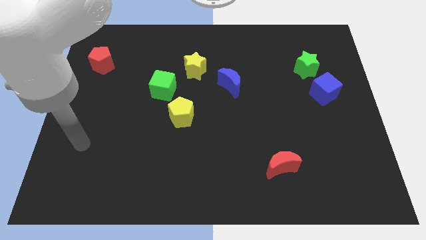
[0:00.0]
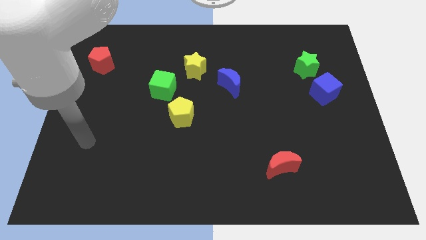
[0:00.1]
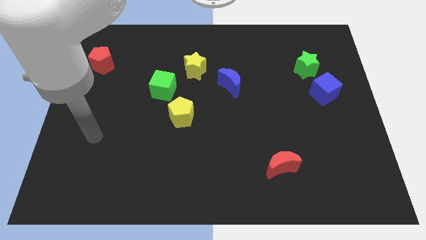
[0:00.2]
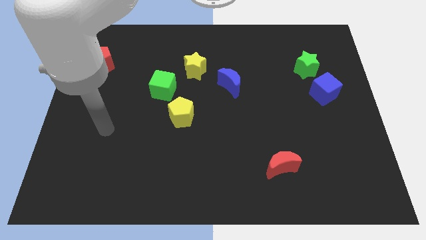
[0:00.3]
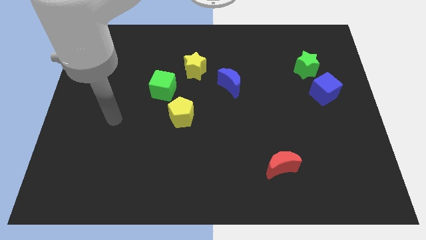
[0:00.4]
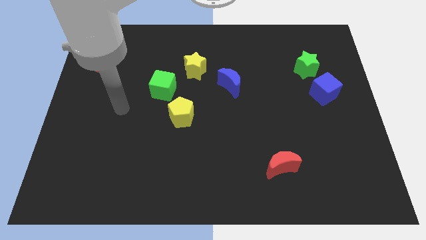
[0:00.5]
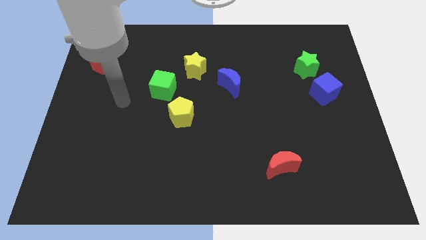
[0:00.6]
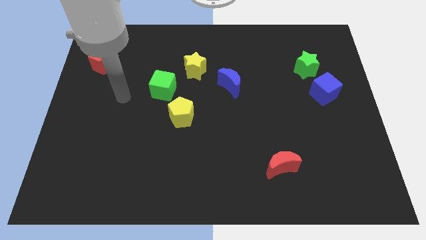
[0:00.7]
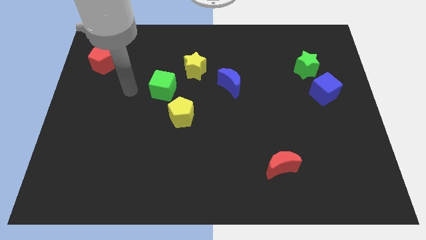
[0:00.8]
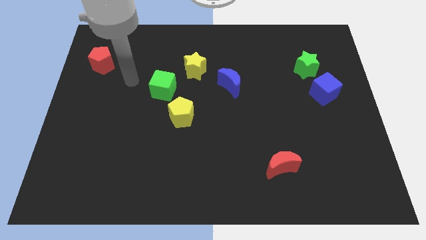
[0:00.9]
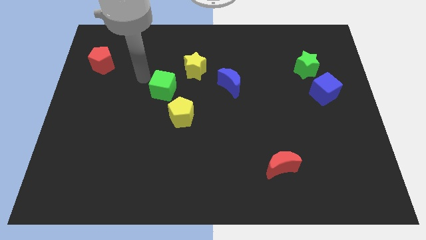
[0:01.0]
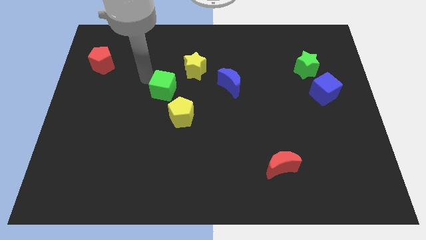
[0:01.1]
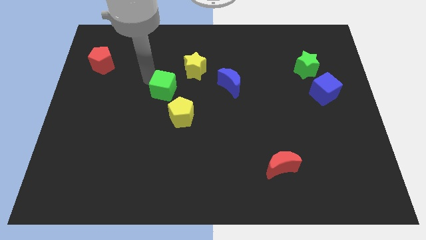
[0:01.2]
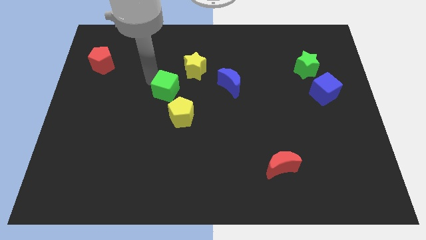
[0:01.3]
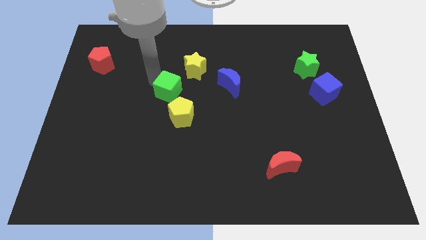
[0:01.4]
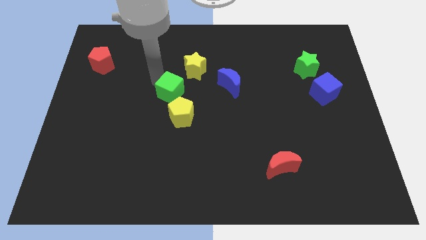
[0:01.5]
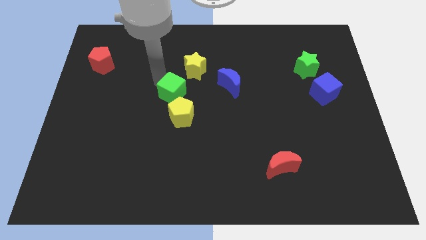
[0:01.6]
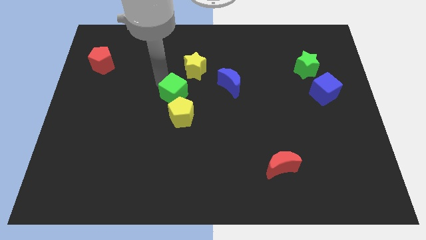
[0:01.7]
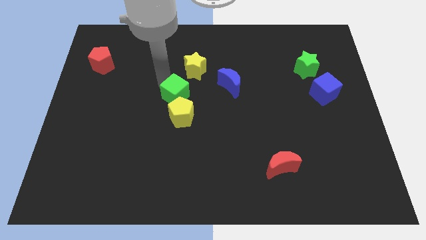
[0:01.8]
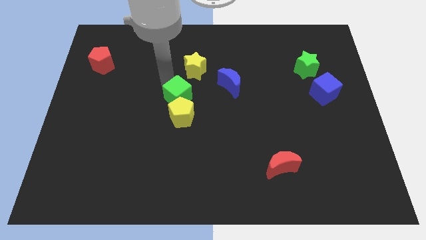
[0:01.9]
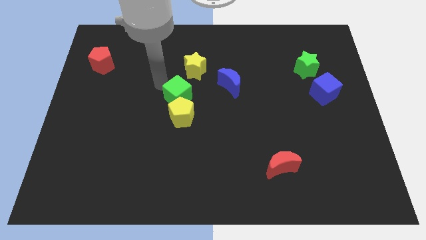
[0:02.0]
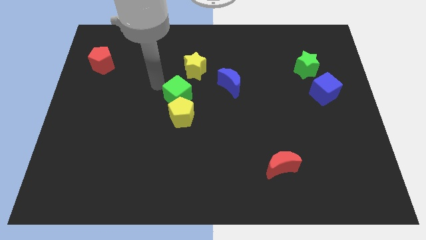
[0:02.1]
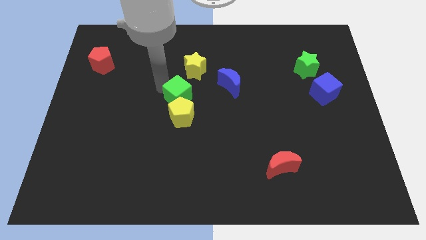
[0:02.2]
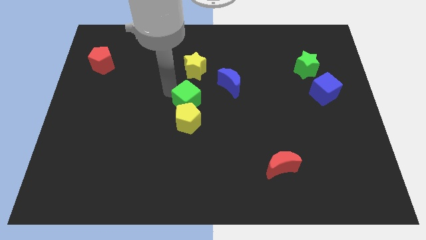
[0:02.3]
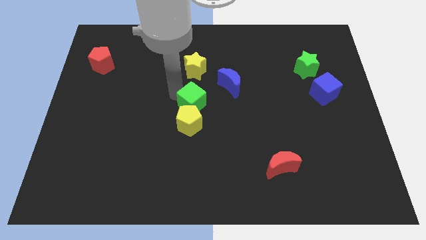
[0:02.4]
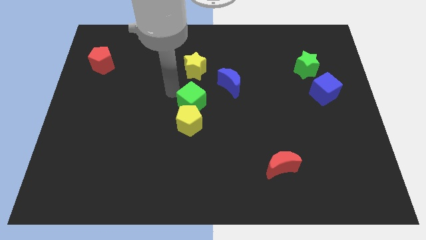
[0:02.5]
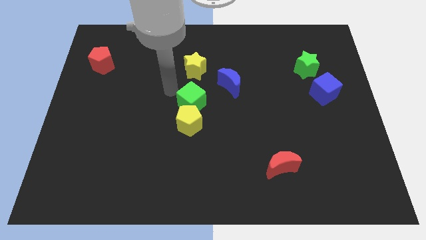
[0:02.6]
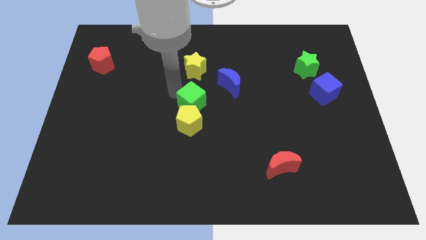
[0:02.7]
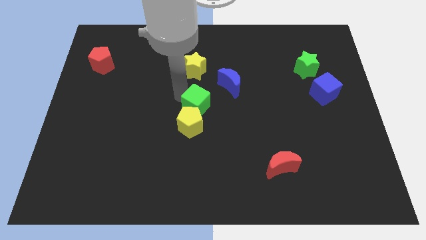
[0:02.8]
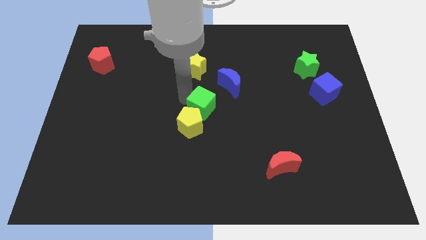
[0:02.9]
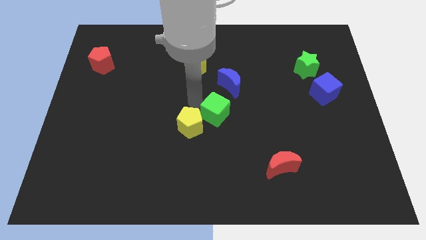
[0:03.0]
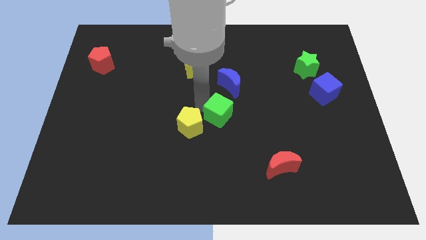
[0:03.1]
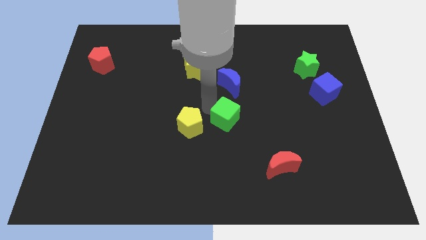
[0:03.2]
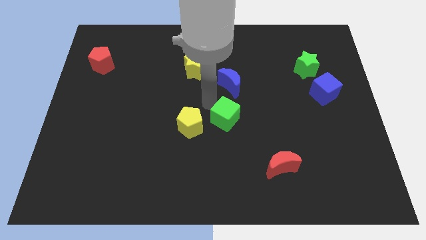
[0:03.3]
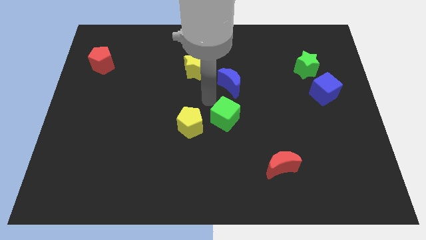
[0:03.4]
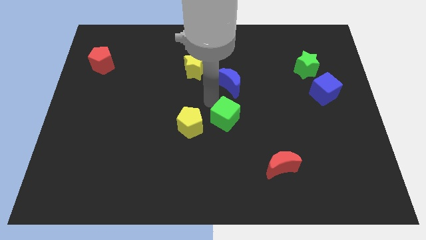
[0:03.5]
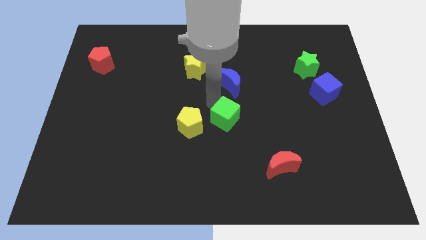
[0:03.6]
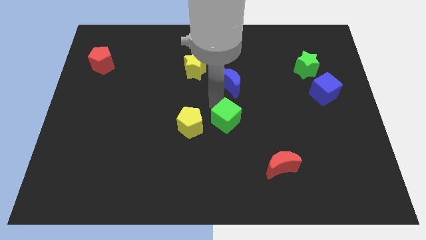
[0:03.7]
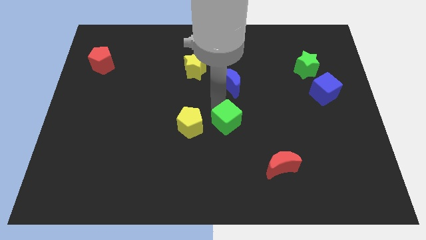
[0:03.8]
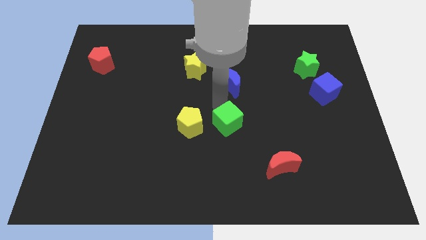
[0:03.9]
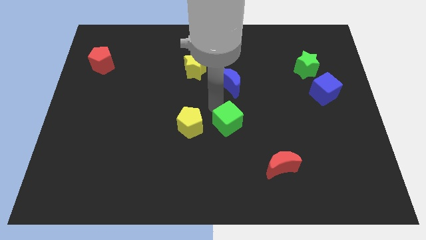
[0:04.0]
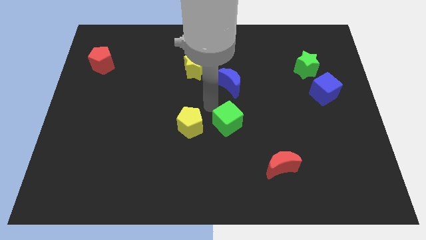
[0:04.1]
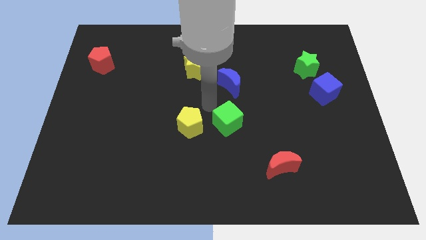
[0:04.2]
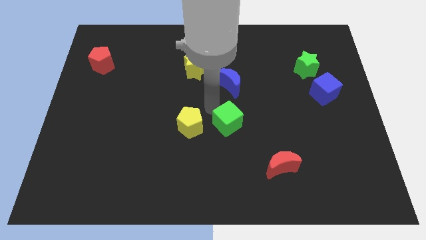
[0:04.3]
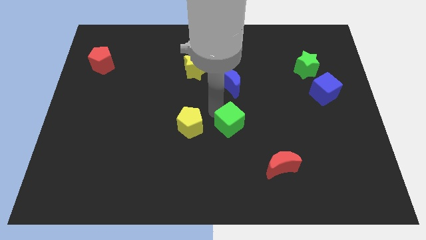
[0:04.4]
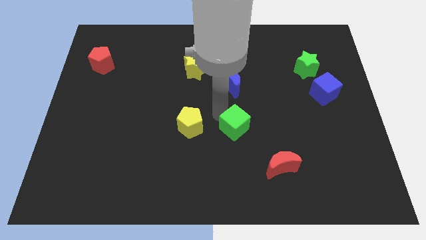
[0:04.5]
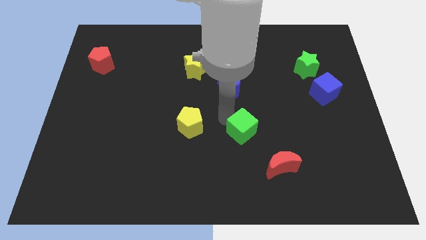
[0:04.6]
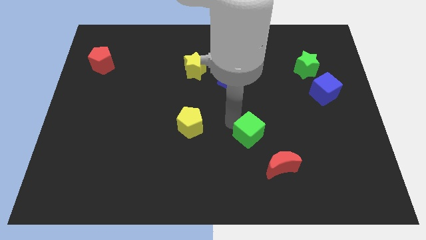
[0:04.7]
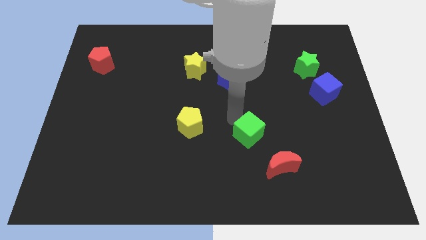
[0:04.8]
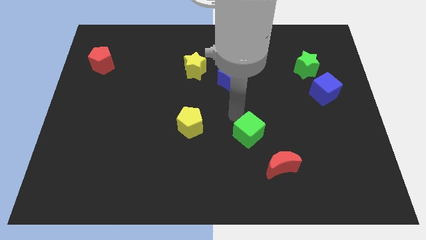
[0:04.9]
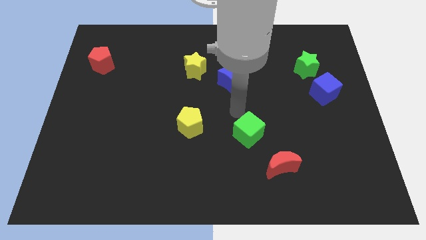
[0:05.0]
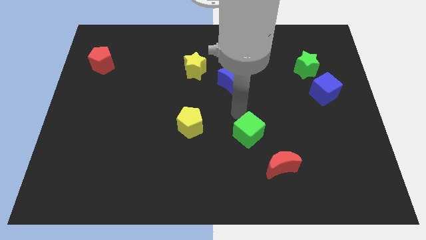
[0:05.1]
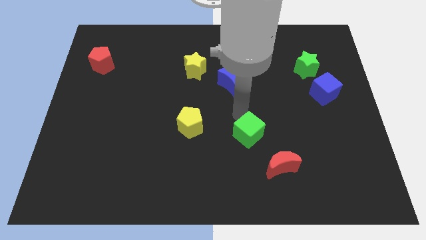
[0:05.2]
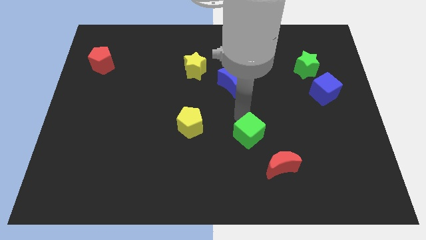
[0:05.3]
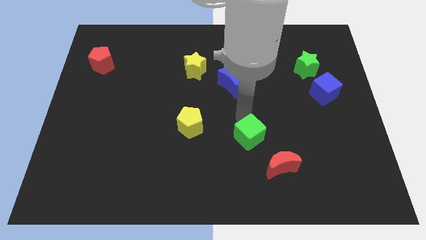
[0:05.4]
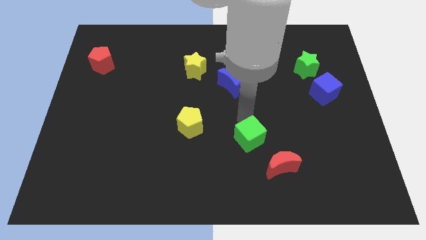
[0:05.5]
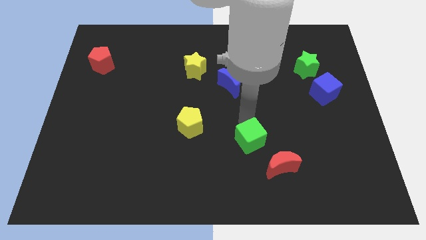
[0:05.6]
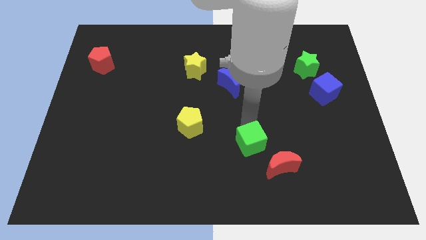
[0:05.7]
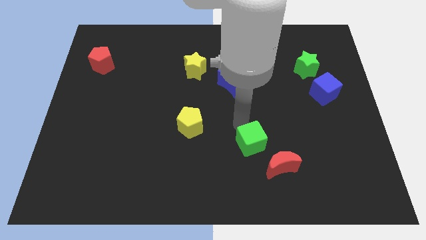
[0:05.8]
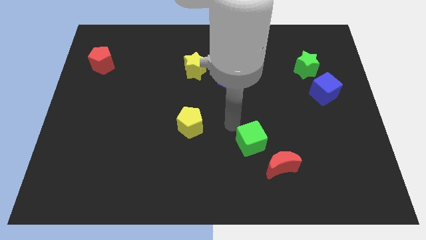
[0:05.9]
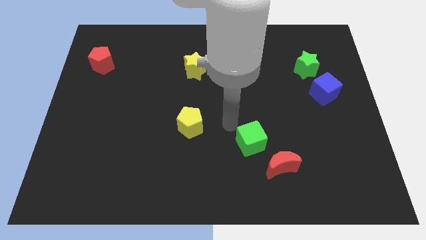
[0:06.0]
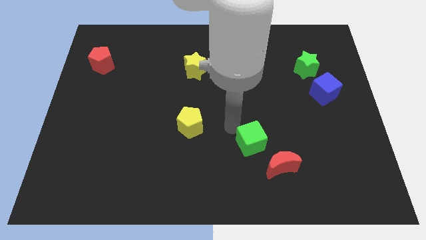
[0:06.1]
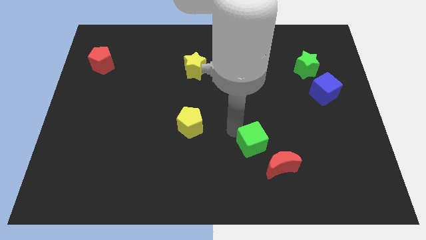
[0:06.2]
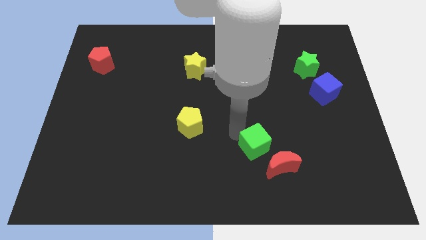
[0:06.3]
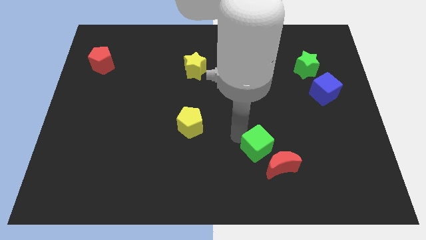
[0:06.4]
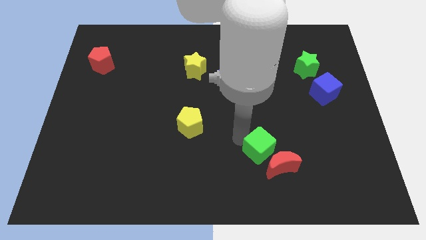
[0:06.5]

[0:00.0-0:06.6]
slide the green cube towards the red moon
